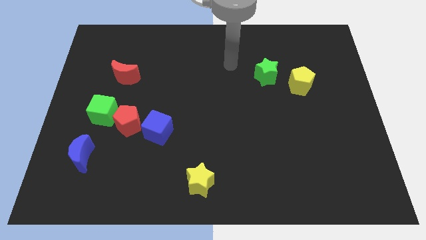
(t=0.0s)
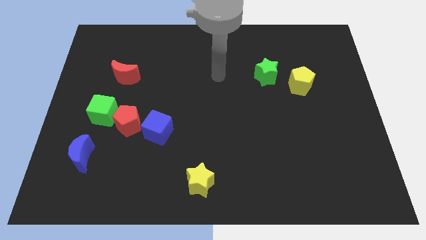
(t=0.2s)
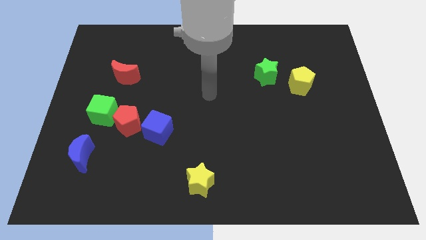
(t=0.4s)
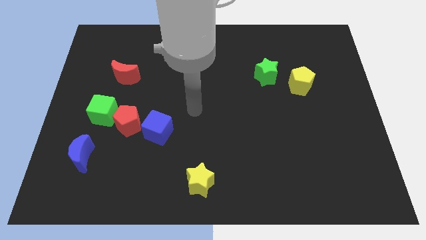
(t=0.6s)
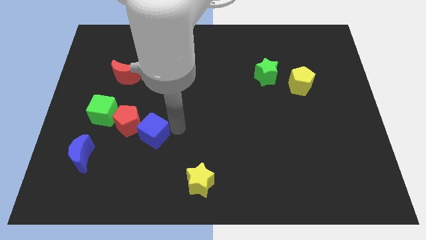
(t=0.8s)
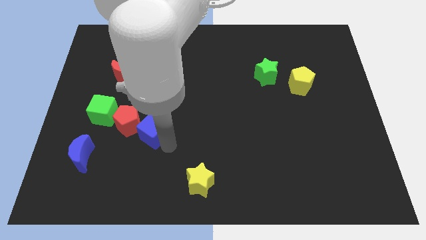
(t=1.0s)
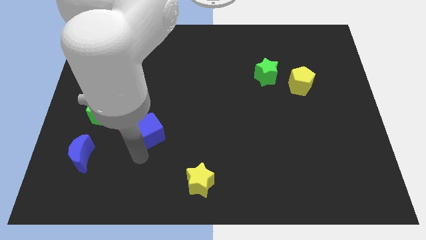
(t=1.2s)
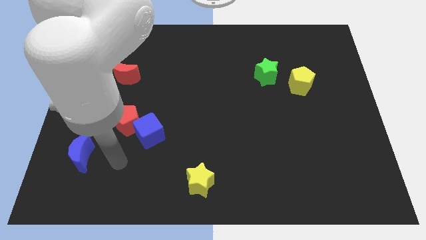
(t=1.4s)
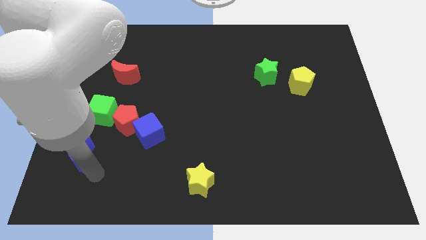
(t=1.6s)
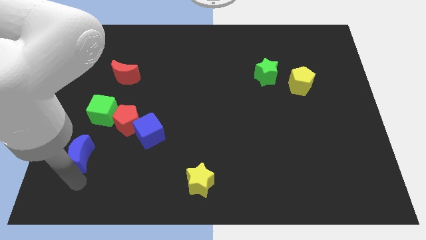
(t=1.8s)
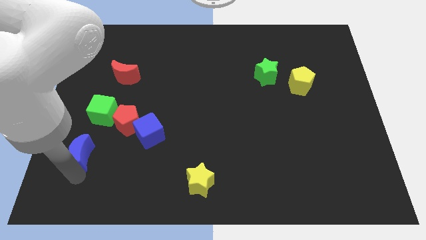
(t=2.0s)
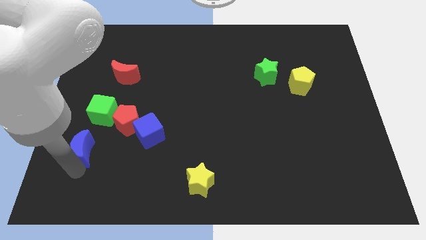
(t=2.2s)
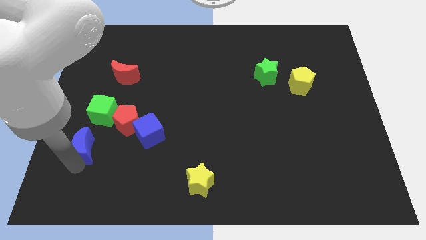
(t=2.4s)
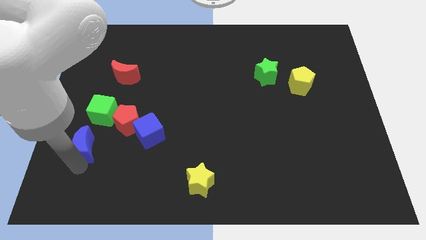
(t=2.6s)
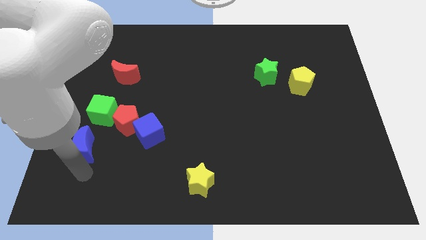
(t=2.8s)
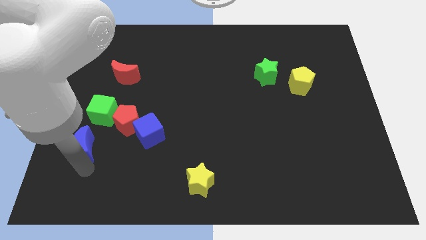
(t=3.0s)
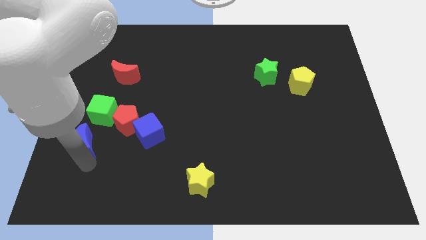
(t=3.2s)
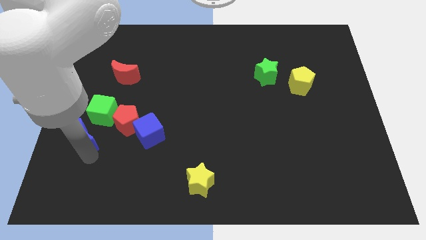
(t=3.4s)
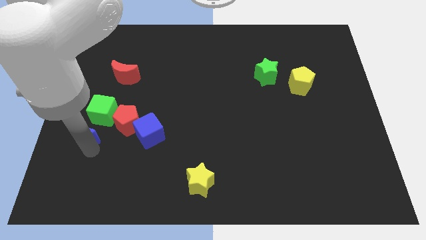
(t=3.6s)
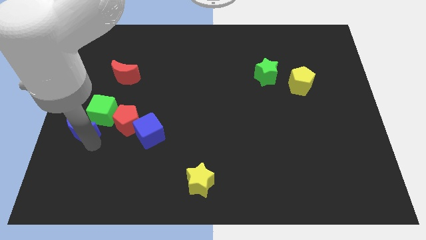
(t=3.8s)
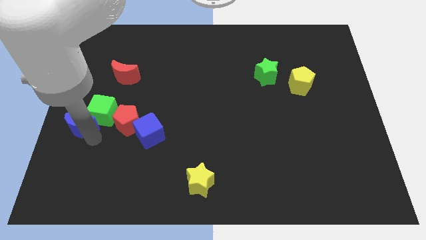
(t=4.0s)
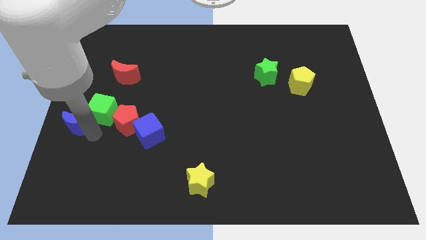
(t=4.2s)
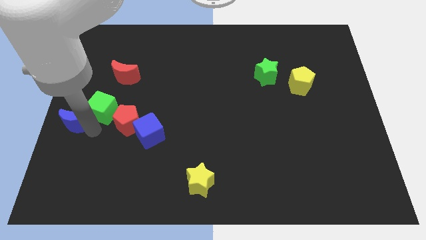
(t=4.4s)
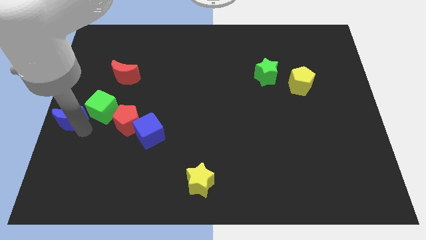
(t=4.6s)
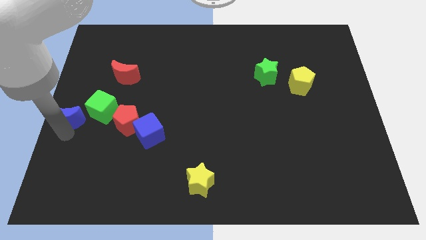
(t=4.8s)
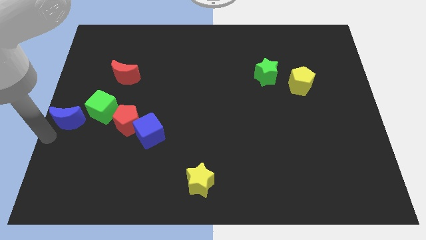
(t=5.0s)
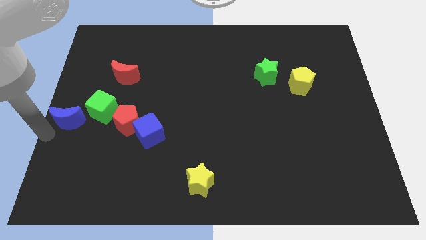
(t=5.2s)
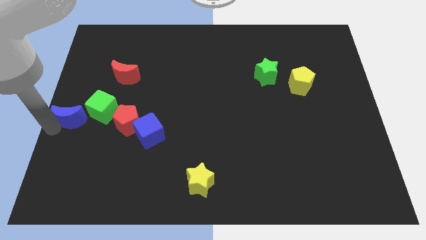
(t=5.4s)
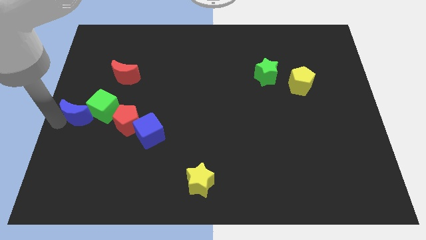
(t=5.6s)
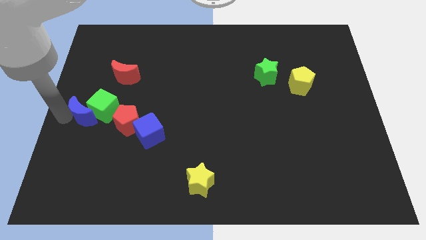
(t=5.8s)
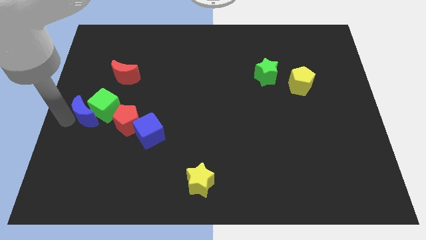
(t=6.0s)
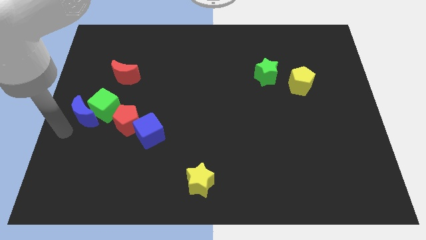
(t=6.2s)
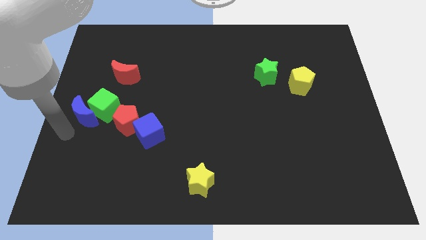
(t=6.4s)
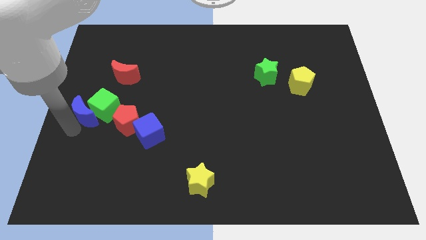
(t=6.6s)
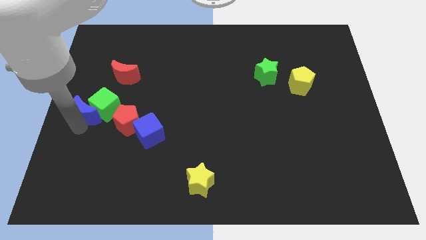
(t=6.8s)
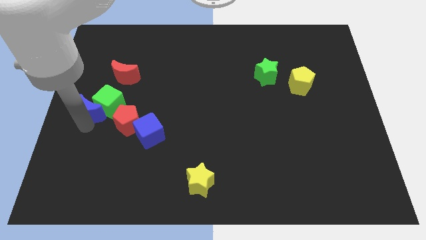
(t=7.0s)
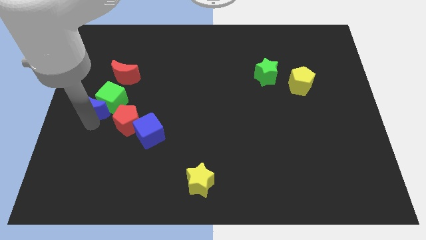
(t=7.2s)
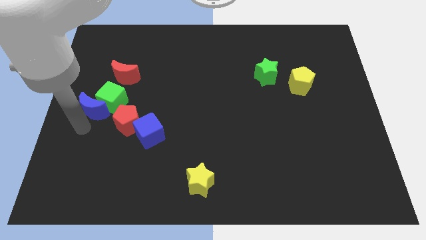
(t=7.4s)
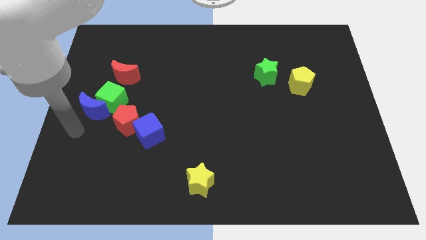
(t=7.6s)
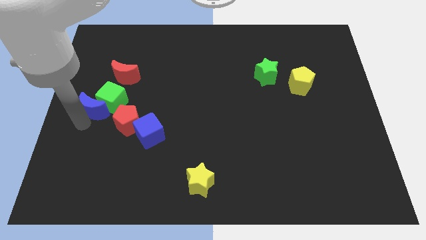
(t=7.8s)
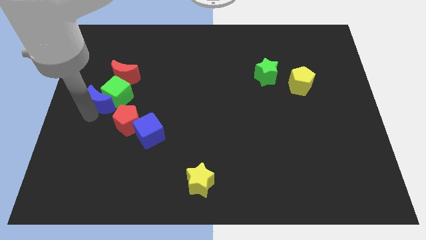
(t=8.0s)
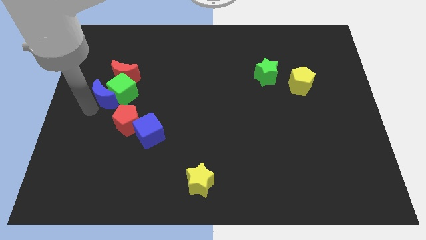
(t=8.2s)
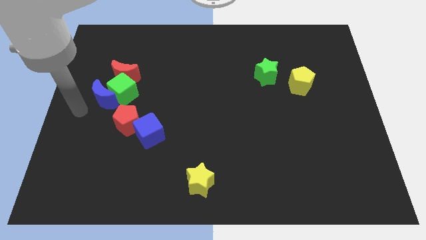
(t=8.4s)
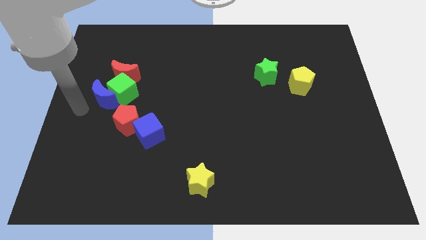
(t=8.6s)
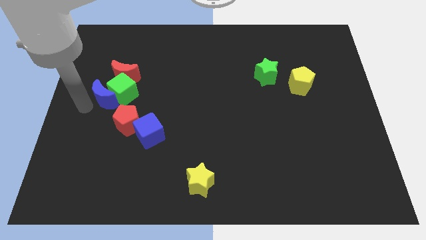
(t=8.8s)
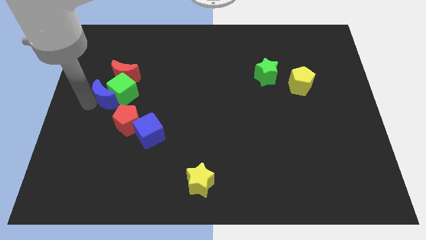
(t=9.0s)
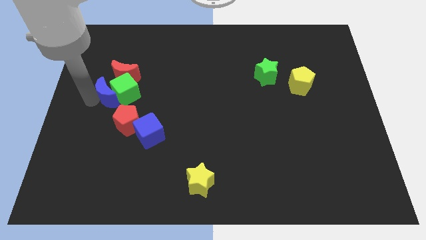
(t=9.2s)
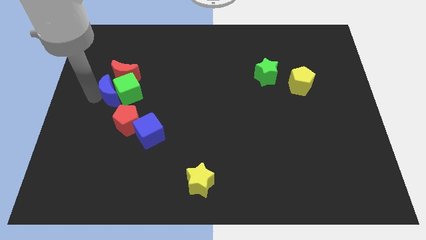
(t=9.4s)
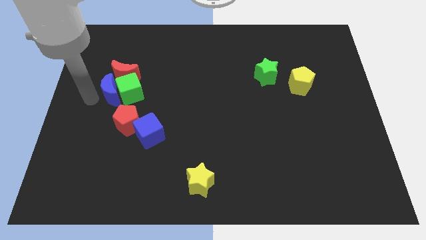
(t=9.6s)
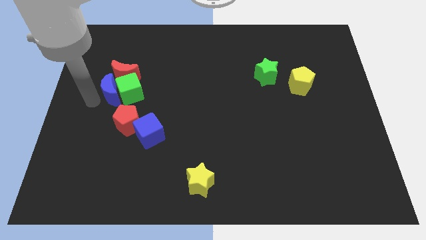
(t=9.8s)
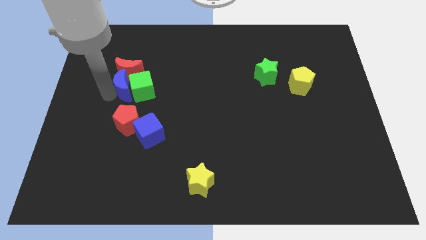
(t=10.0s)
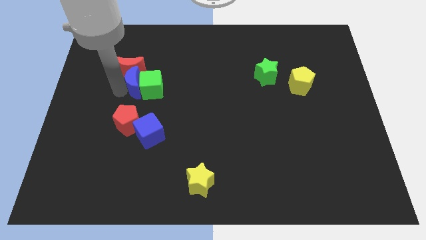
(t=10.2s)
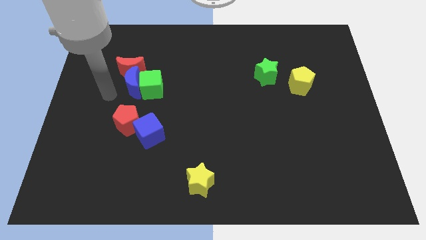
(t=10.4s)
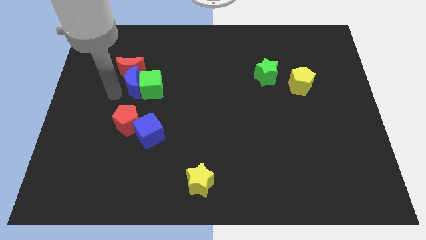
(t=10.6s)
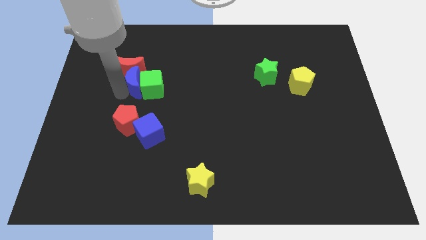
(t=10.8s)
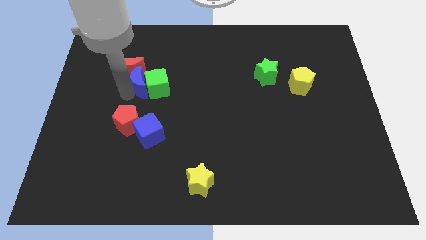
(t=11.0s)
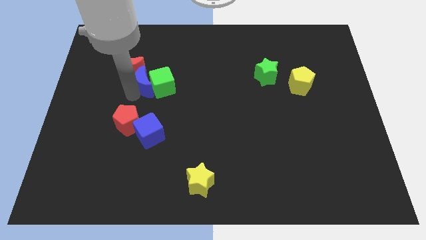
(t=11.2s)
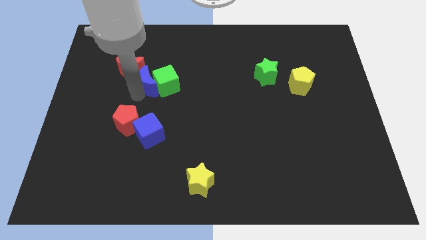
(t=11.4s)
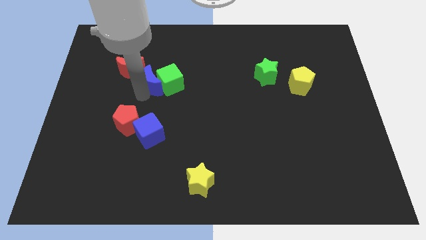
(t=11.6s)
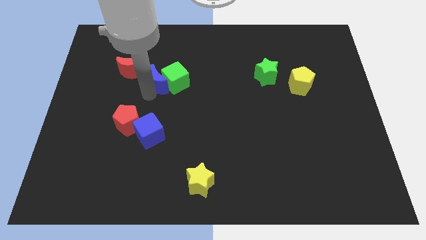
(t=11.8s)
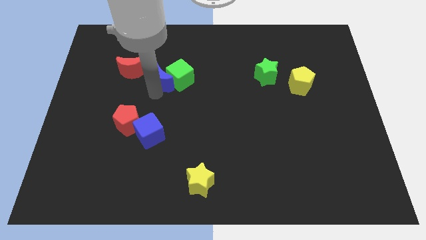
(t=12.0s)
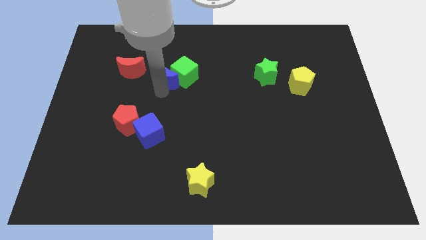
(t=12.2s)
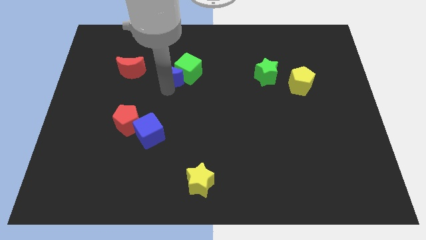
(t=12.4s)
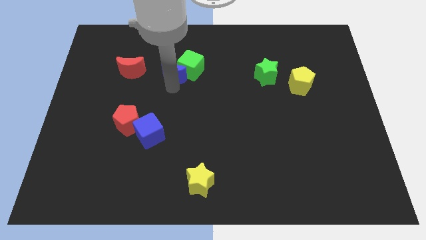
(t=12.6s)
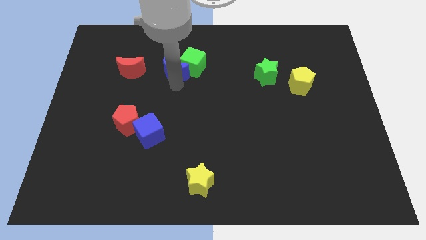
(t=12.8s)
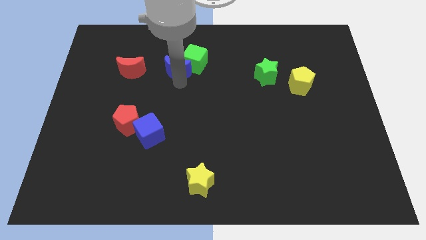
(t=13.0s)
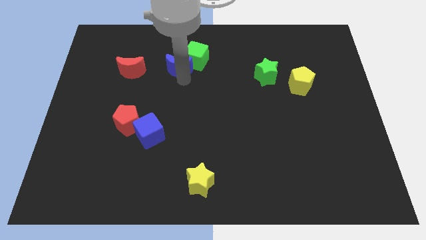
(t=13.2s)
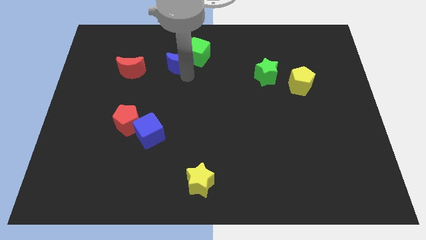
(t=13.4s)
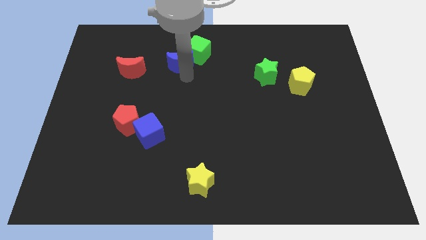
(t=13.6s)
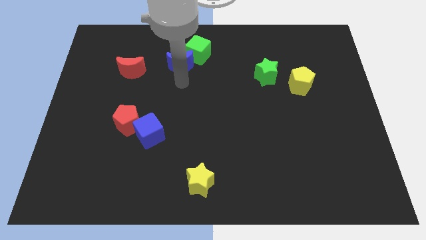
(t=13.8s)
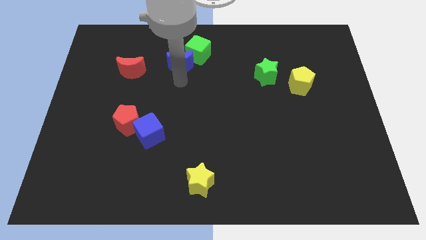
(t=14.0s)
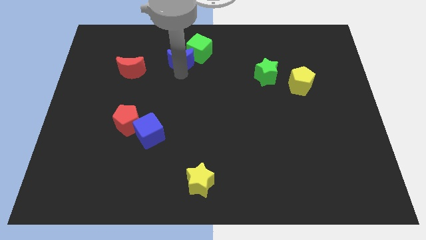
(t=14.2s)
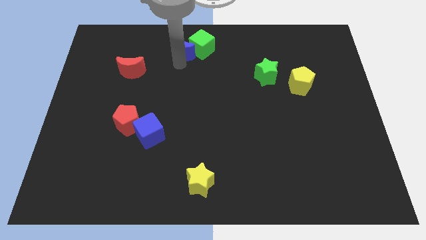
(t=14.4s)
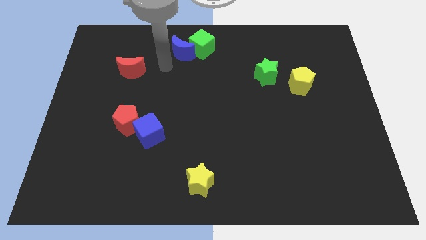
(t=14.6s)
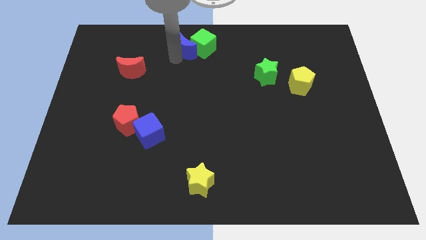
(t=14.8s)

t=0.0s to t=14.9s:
move the blue moon to the top side
